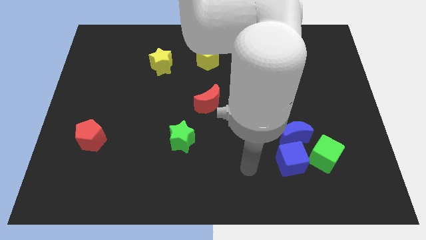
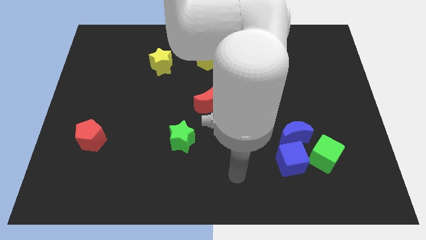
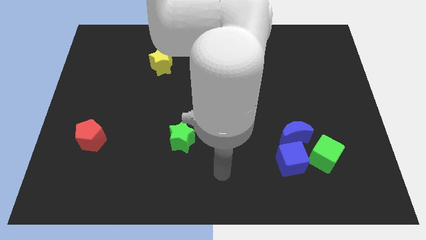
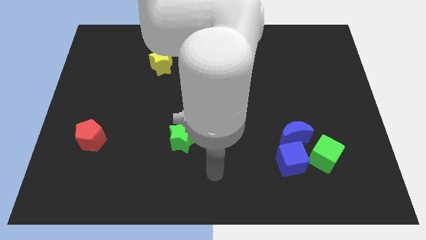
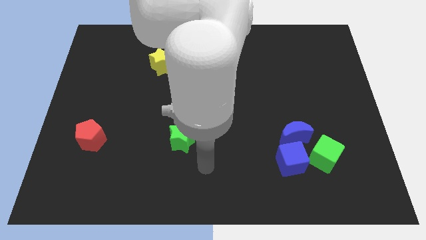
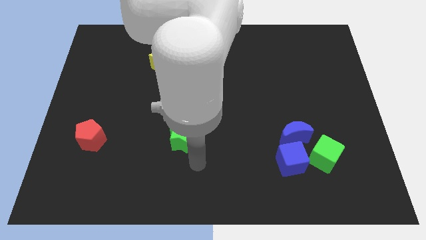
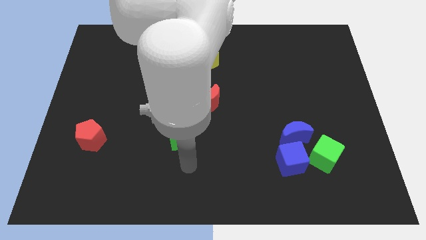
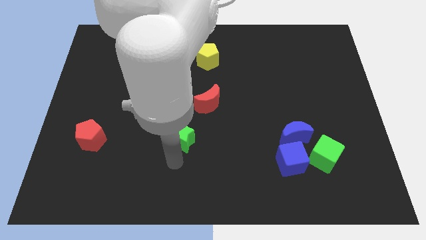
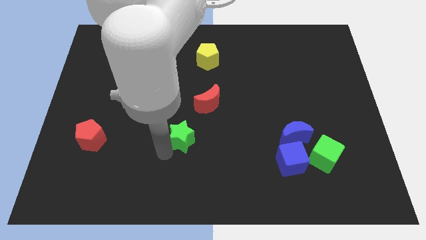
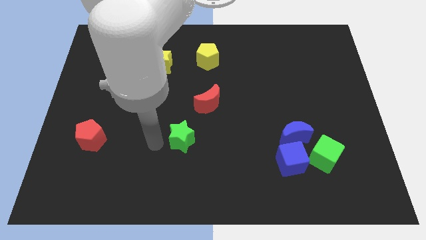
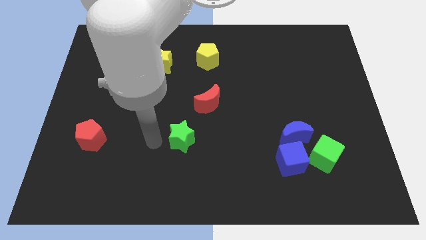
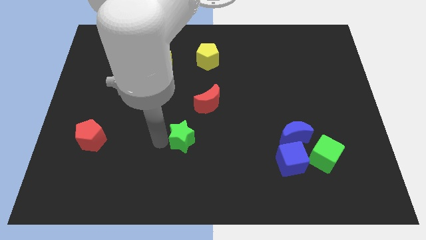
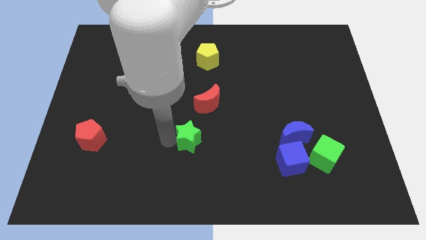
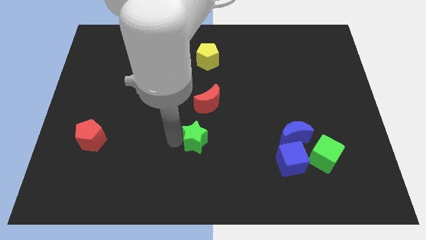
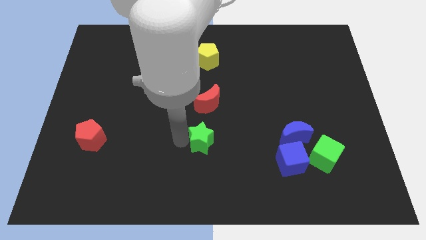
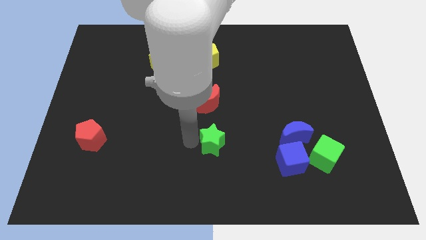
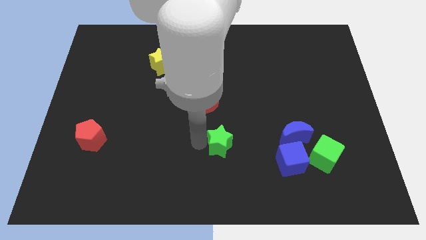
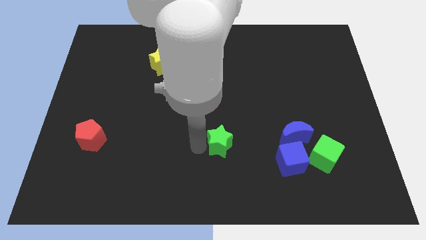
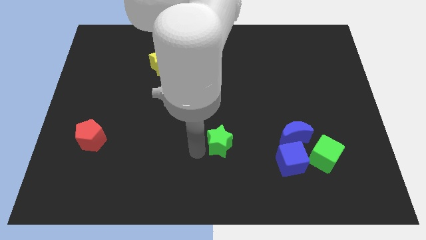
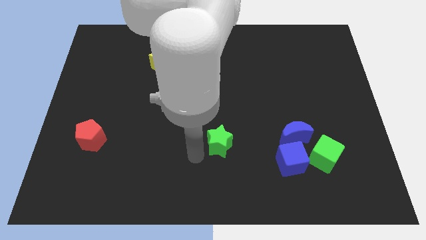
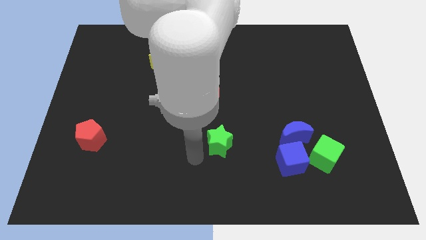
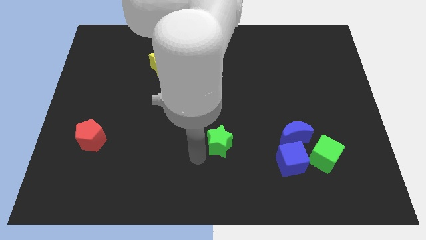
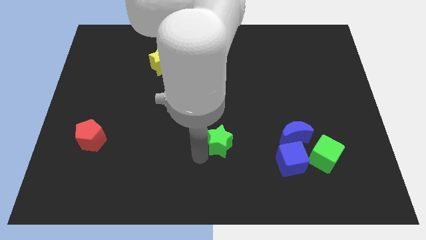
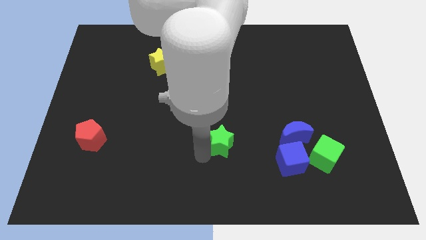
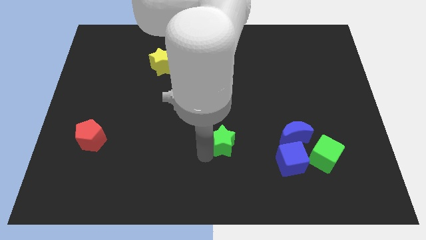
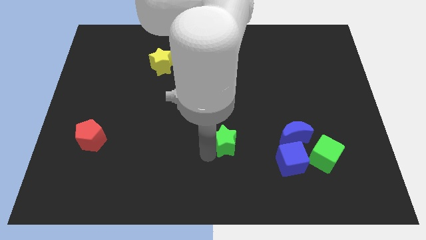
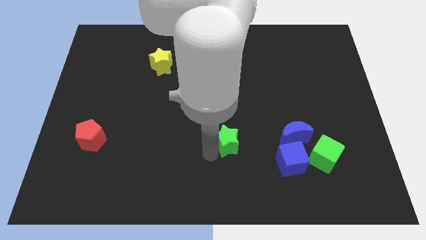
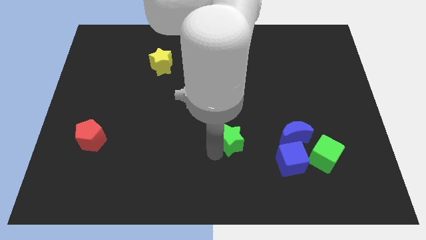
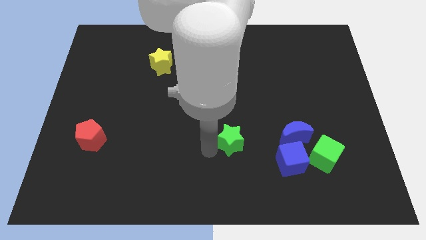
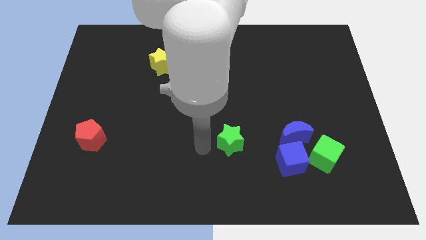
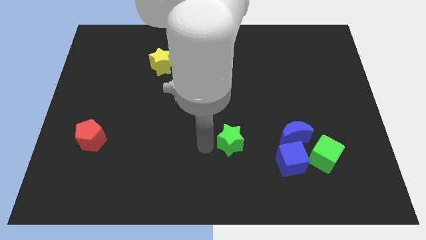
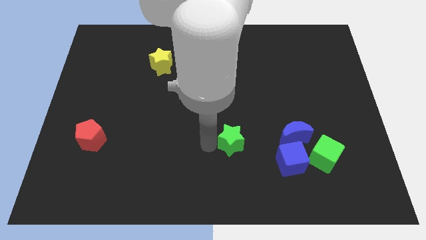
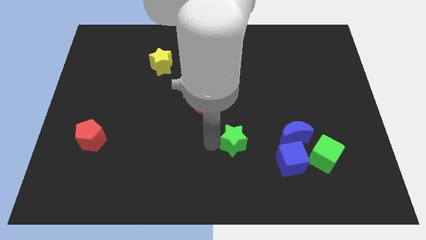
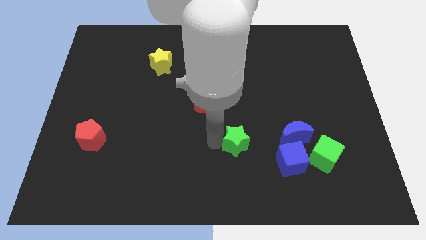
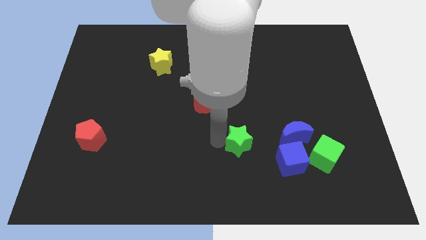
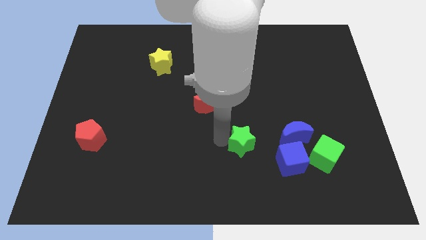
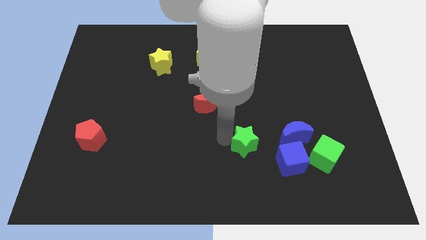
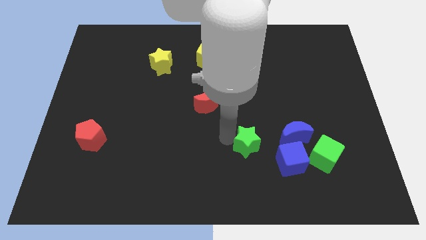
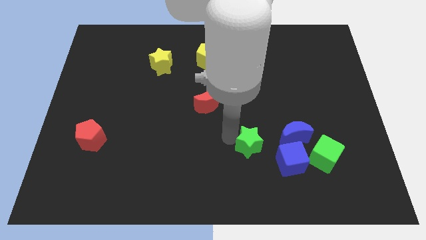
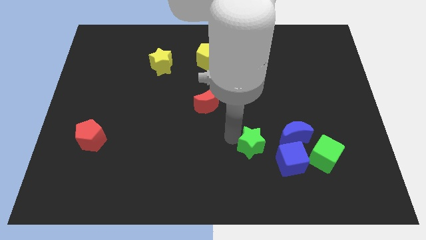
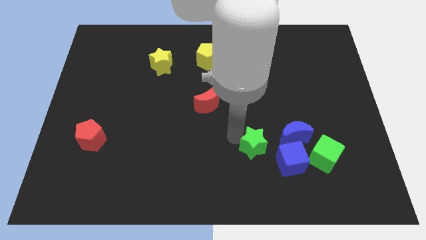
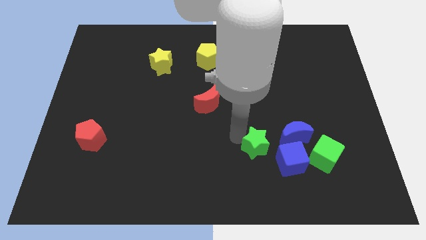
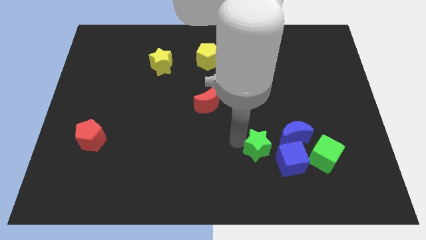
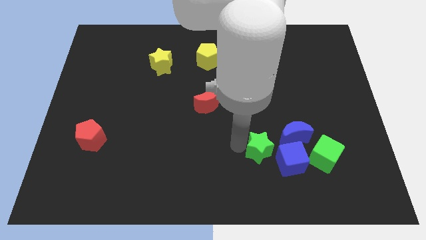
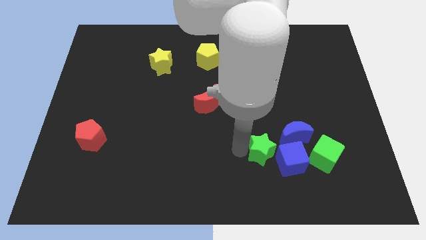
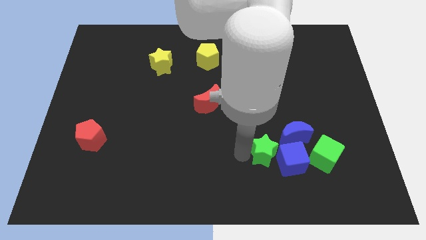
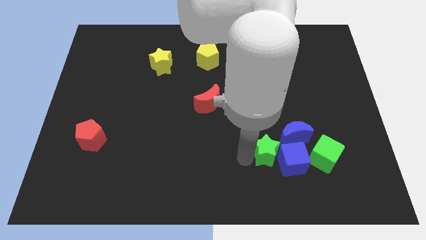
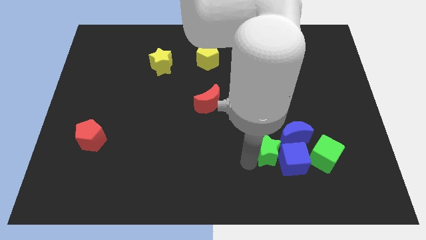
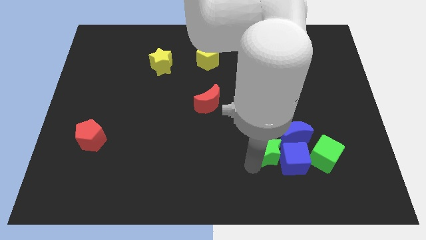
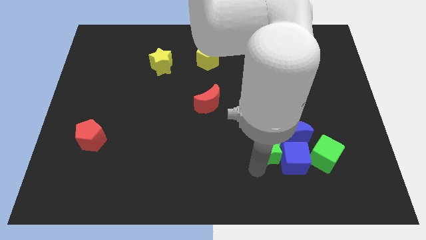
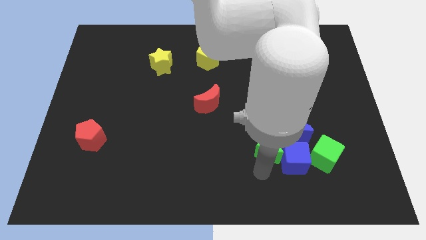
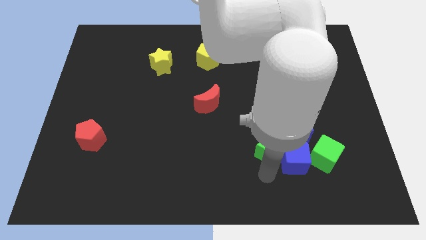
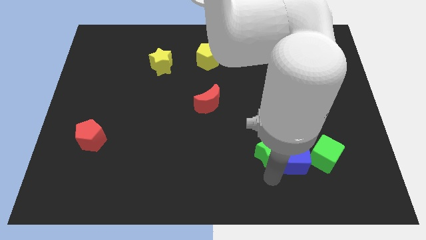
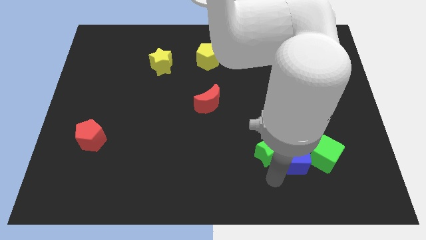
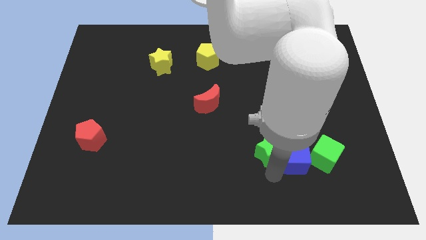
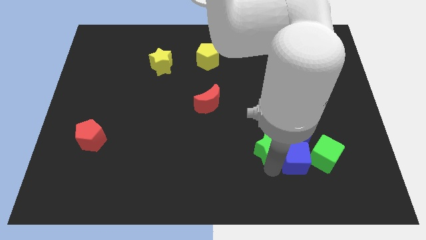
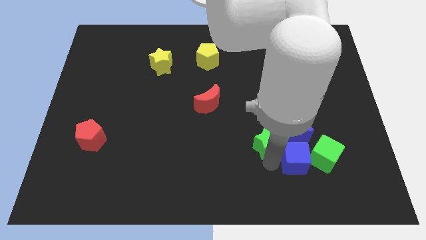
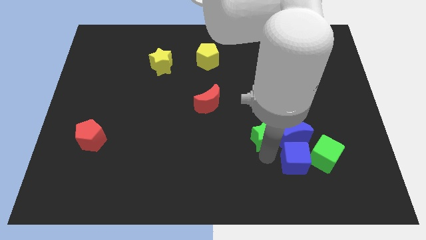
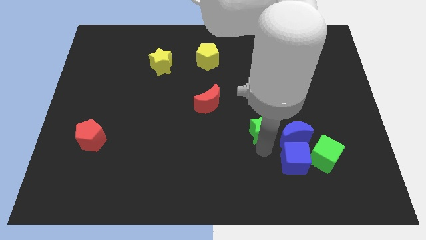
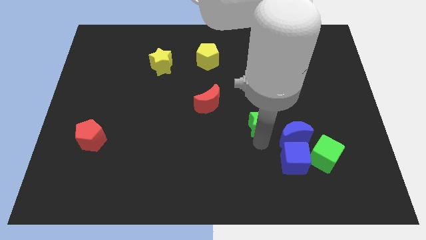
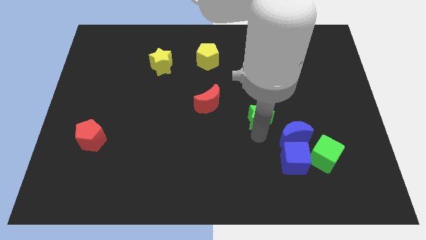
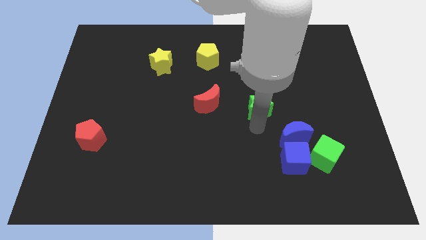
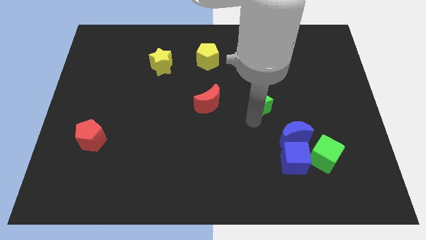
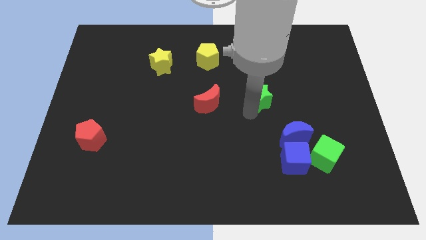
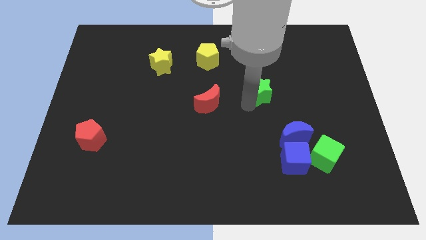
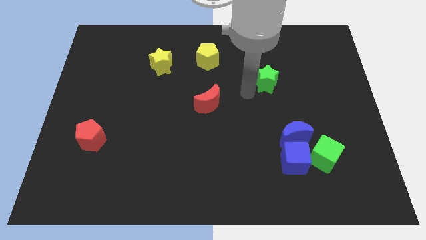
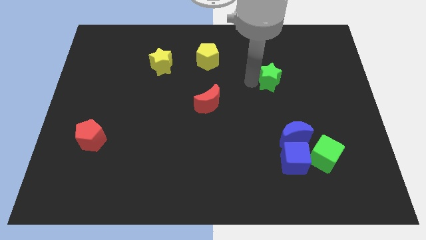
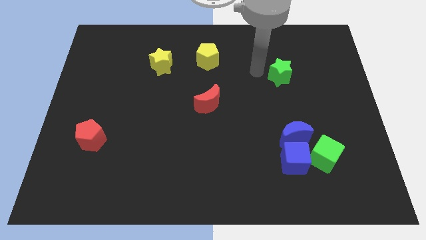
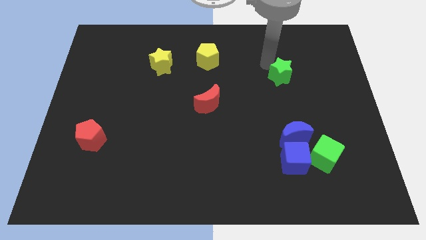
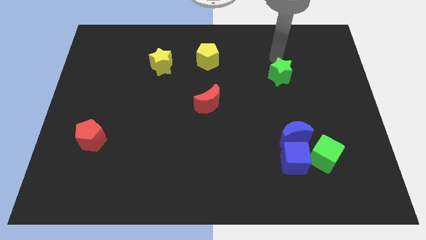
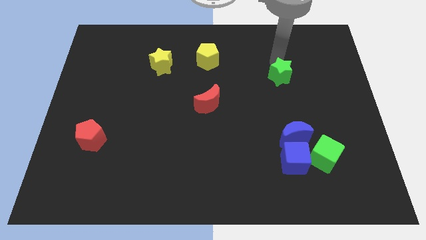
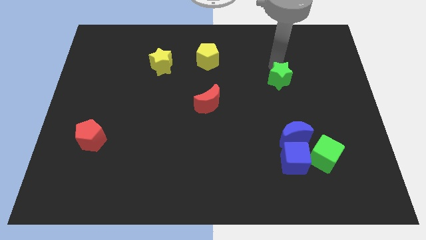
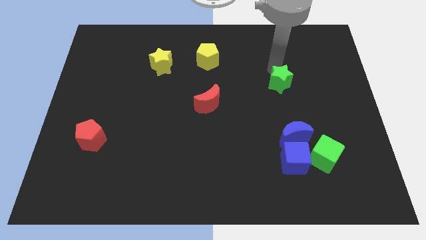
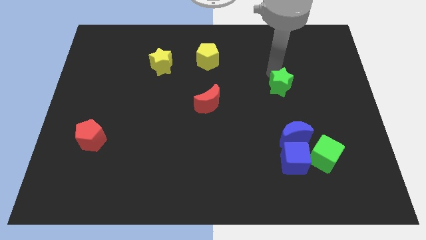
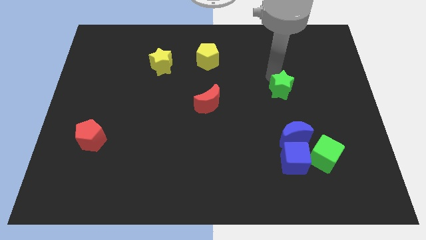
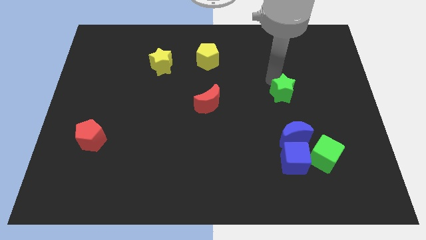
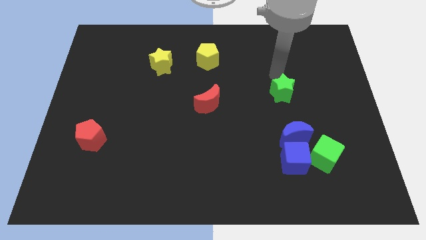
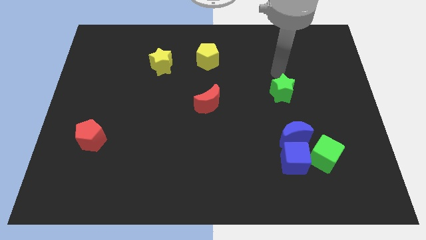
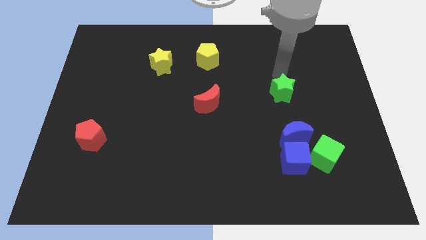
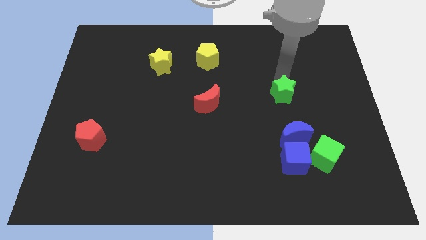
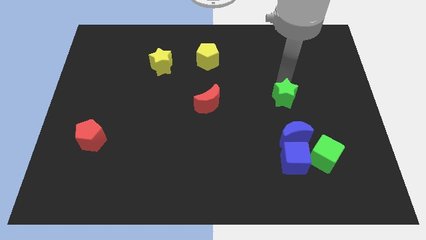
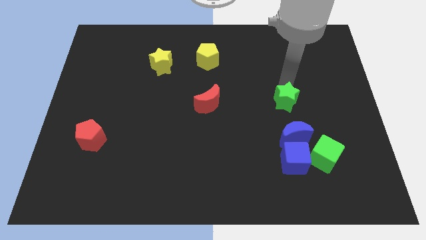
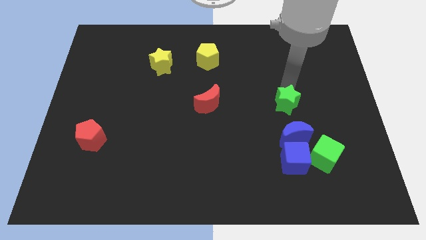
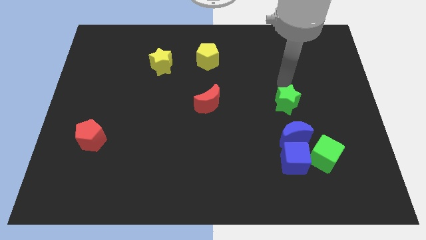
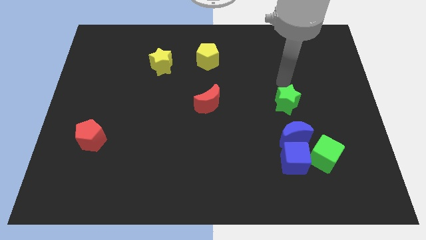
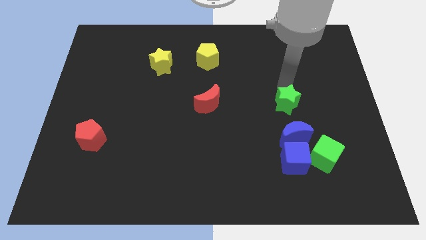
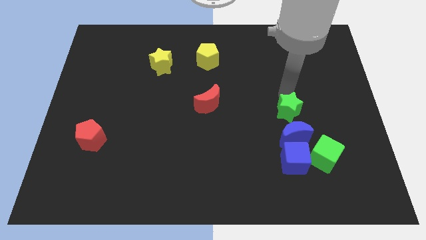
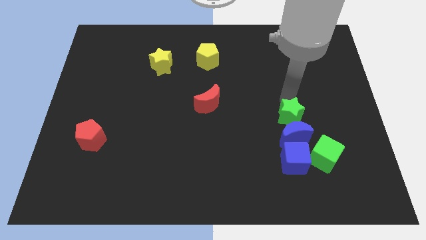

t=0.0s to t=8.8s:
move the green star close to the blue moon
